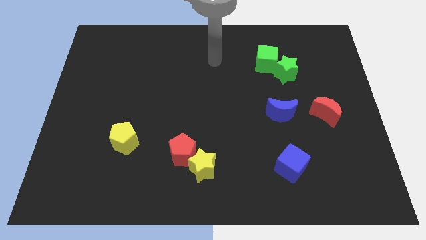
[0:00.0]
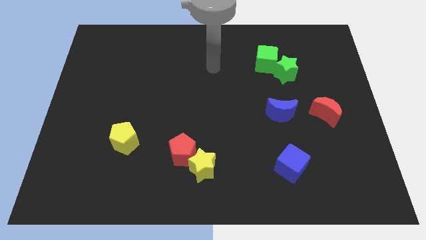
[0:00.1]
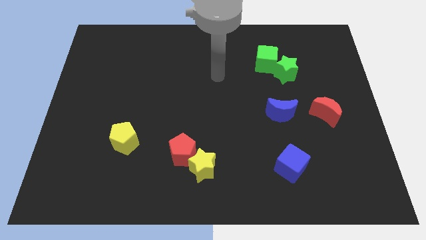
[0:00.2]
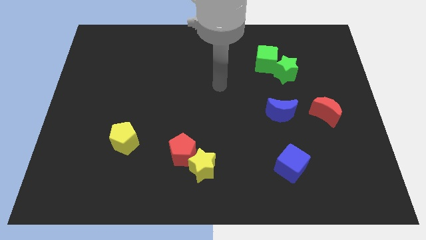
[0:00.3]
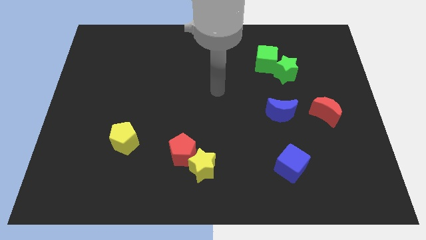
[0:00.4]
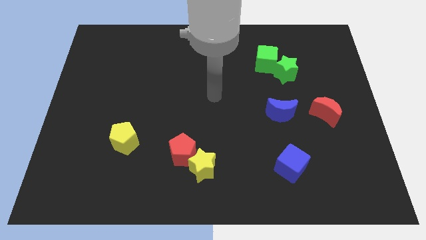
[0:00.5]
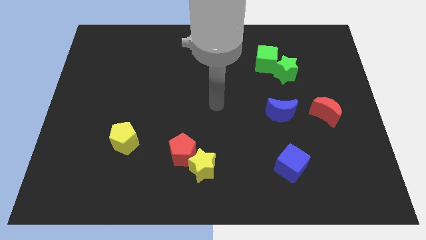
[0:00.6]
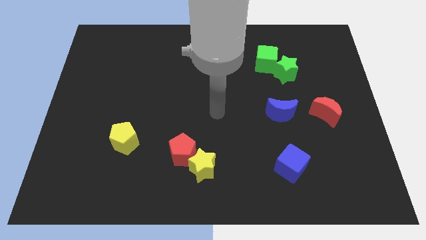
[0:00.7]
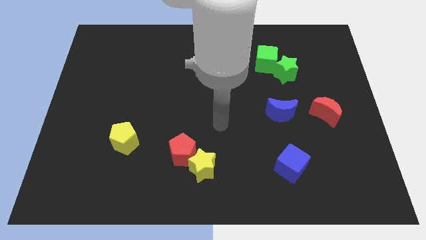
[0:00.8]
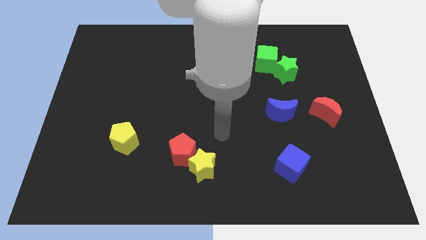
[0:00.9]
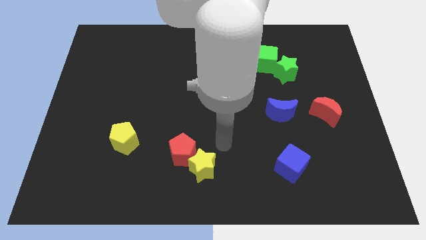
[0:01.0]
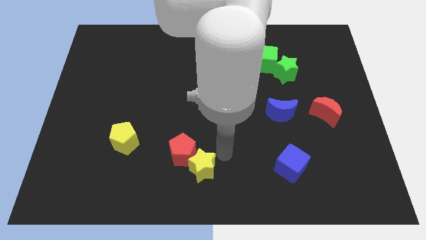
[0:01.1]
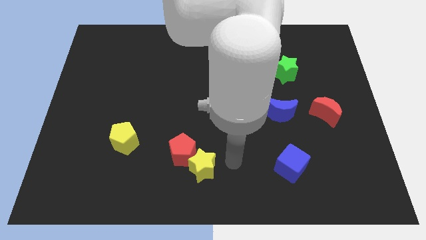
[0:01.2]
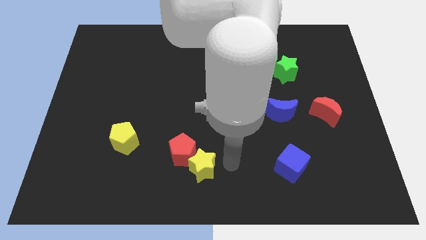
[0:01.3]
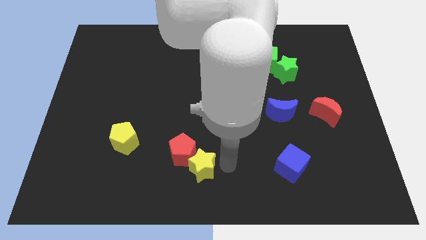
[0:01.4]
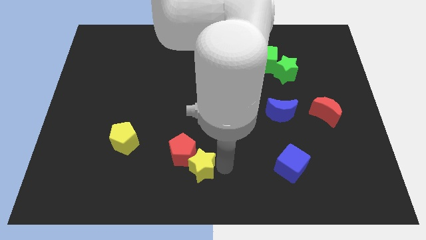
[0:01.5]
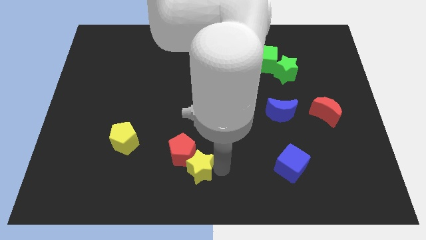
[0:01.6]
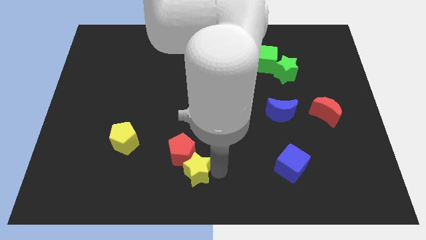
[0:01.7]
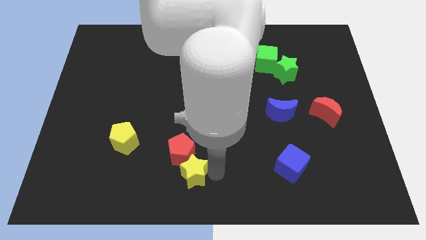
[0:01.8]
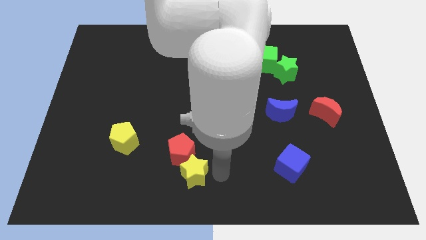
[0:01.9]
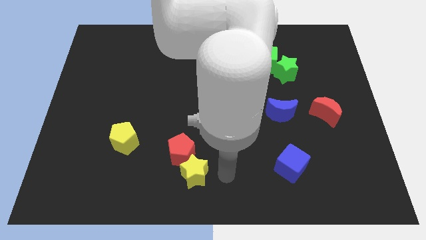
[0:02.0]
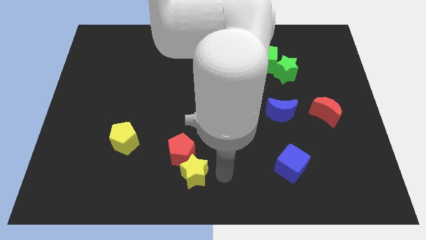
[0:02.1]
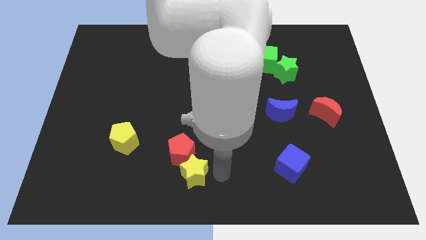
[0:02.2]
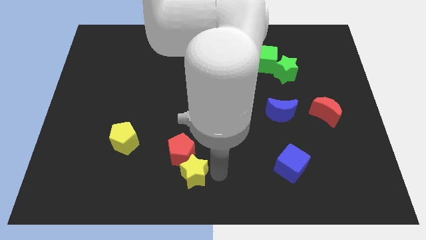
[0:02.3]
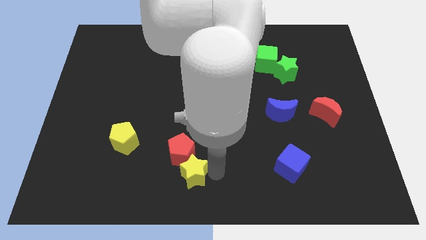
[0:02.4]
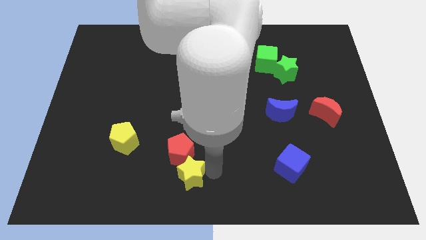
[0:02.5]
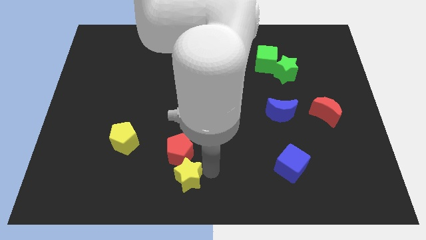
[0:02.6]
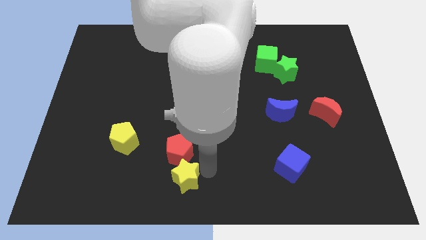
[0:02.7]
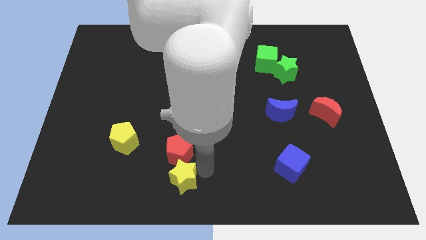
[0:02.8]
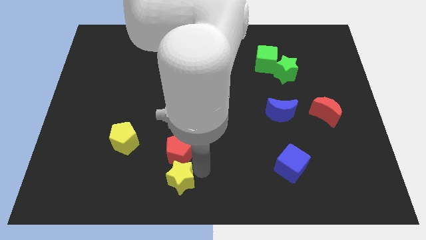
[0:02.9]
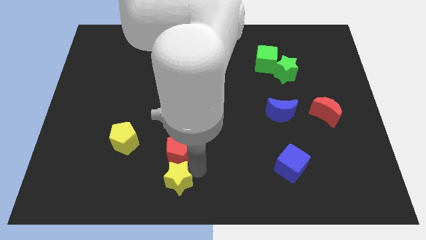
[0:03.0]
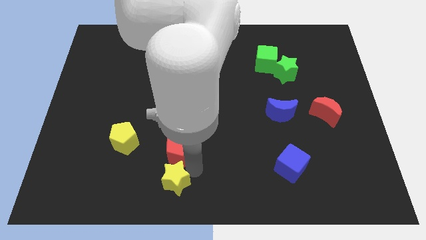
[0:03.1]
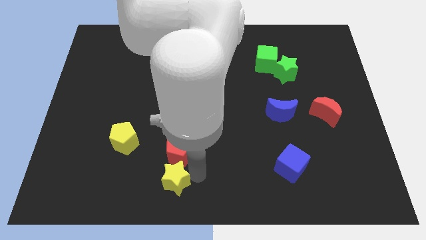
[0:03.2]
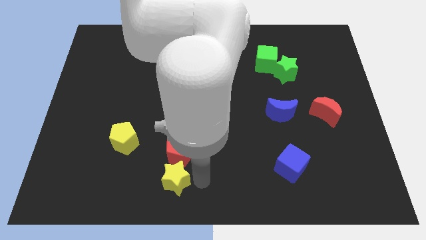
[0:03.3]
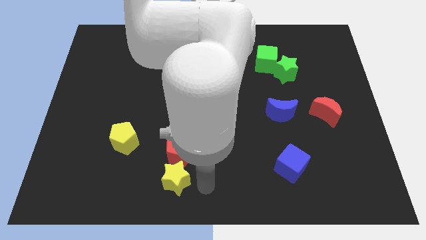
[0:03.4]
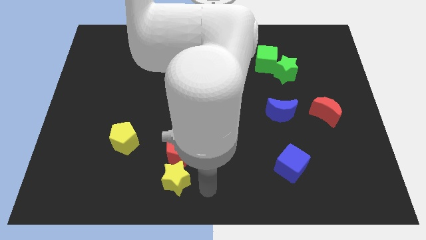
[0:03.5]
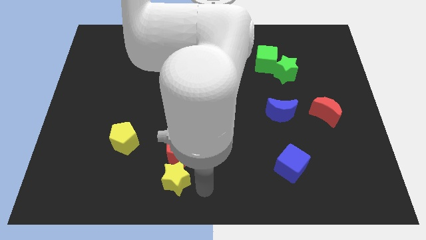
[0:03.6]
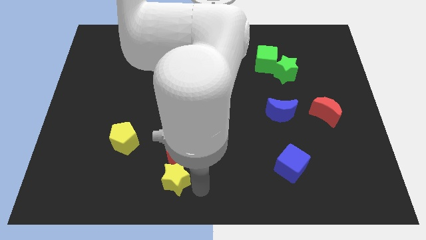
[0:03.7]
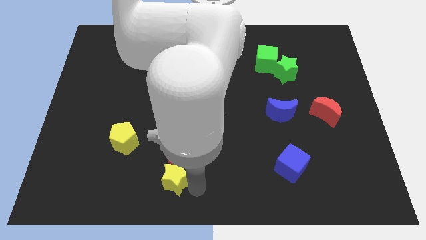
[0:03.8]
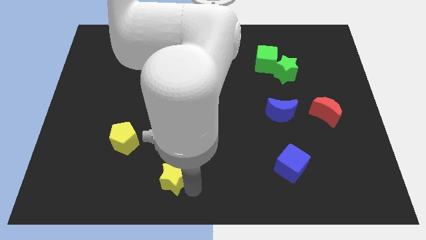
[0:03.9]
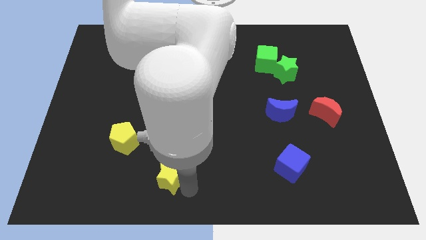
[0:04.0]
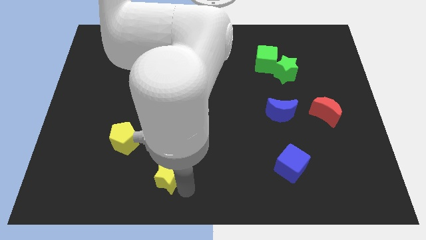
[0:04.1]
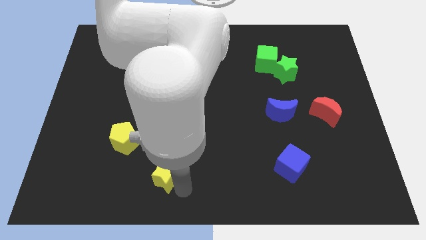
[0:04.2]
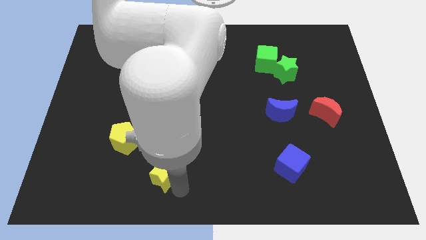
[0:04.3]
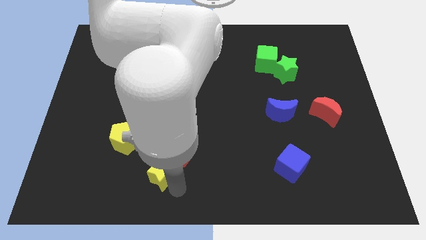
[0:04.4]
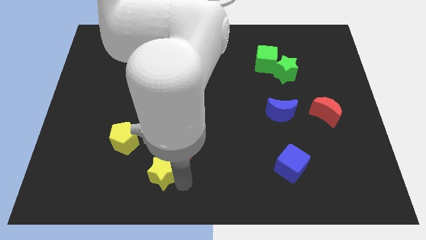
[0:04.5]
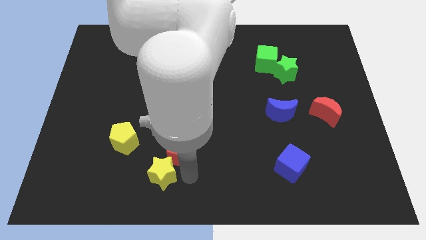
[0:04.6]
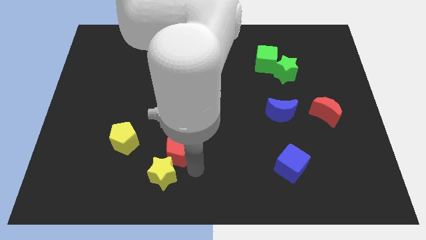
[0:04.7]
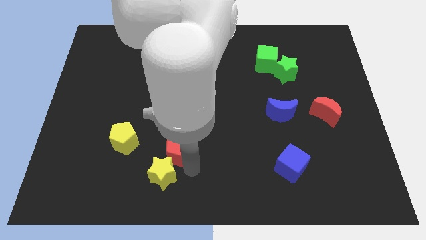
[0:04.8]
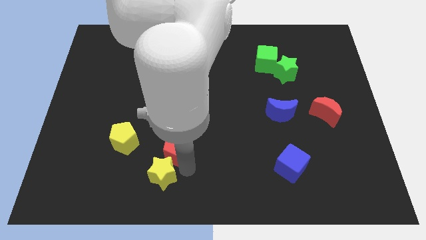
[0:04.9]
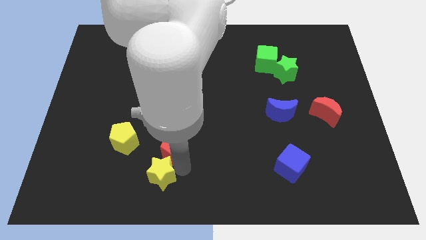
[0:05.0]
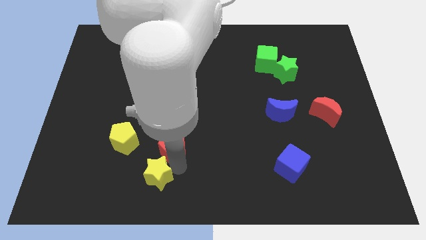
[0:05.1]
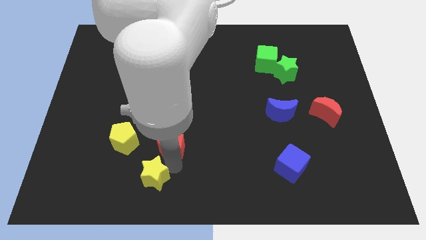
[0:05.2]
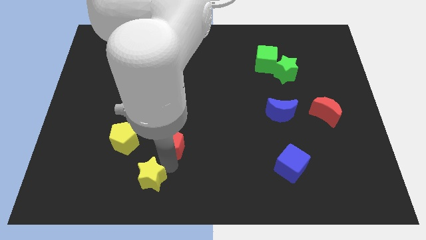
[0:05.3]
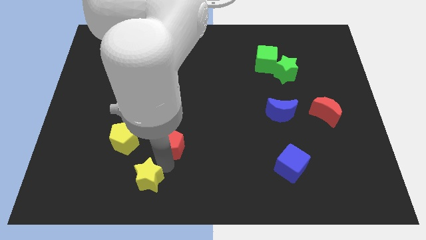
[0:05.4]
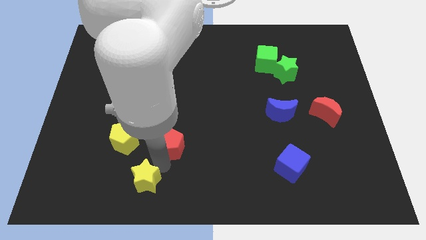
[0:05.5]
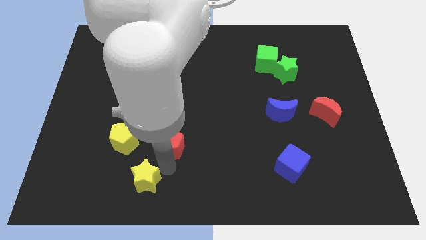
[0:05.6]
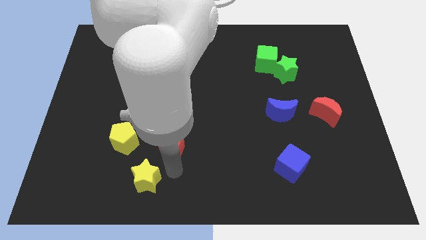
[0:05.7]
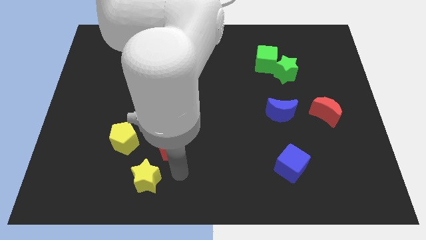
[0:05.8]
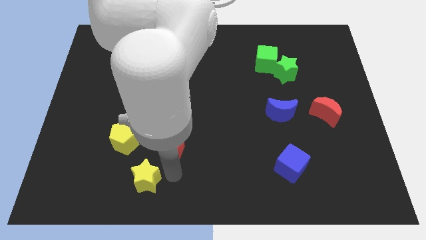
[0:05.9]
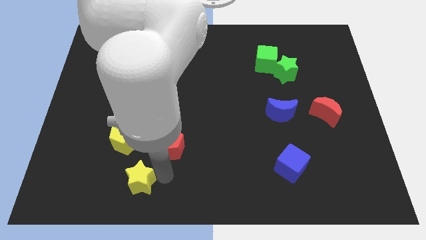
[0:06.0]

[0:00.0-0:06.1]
put the yellow star to the bottom side of the yellow pentagon

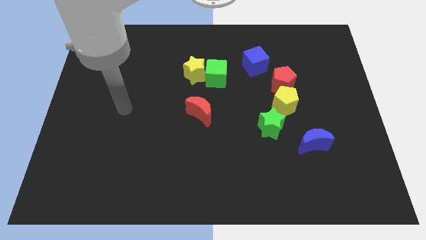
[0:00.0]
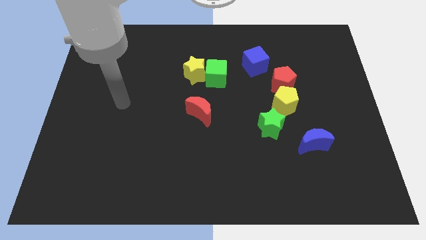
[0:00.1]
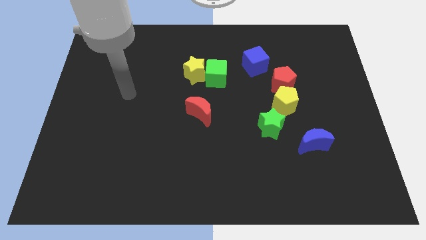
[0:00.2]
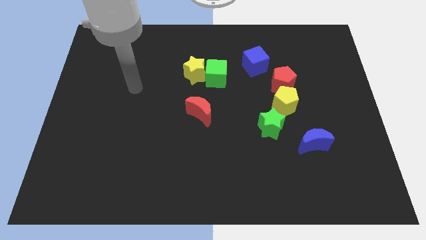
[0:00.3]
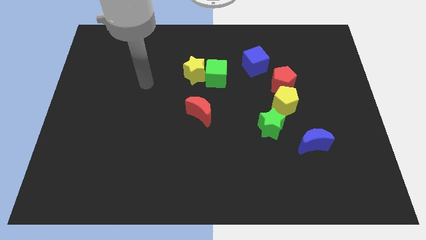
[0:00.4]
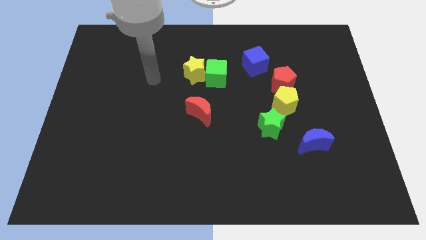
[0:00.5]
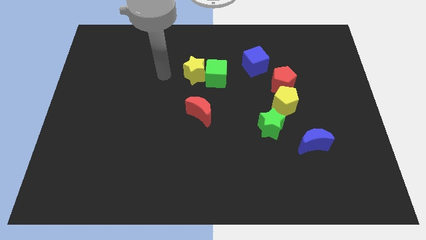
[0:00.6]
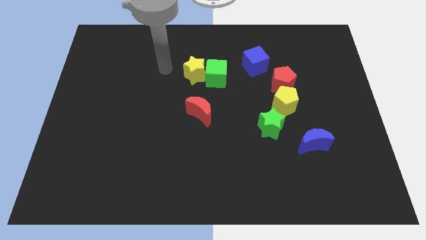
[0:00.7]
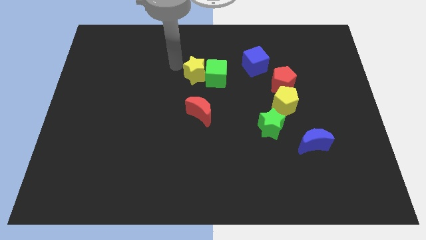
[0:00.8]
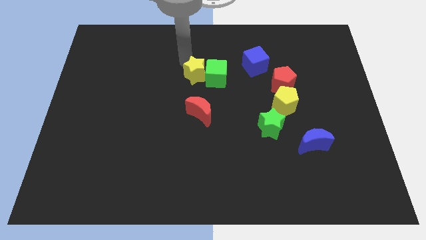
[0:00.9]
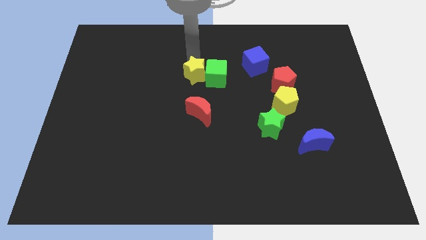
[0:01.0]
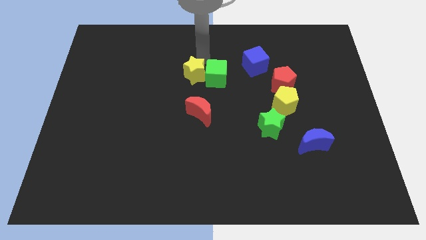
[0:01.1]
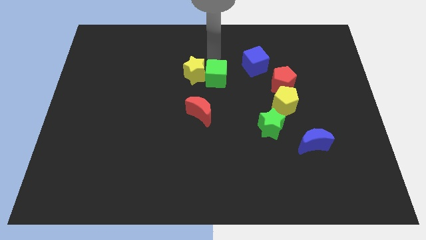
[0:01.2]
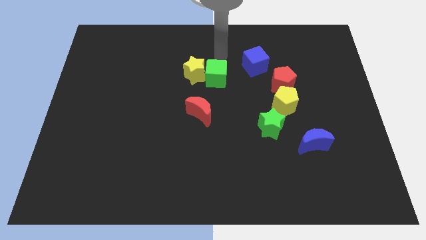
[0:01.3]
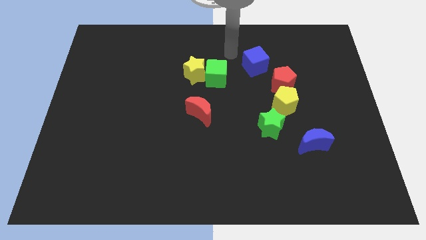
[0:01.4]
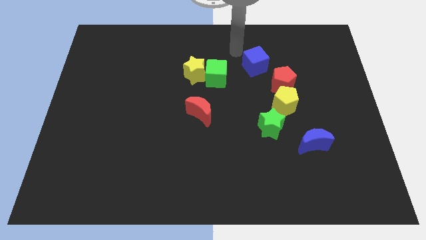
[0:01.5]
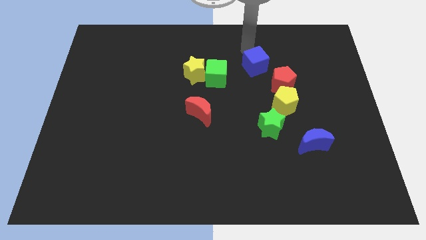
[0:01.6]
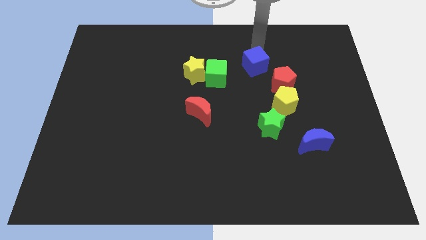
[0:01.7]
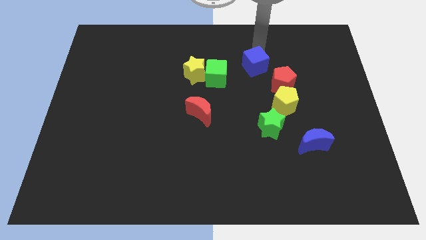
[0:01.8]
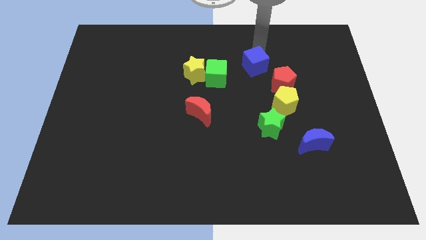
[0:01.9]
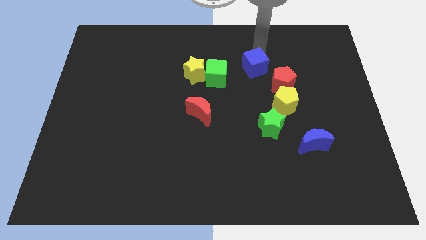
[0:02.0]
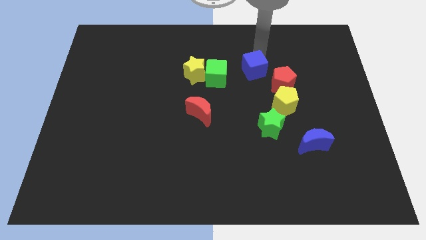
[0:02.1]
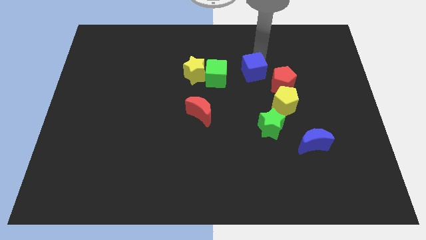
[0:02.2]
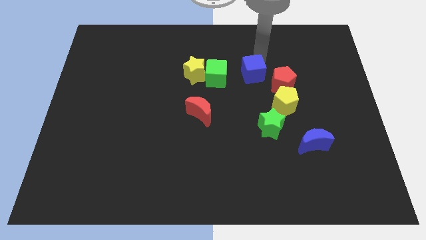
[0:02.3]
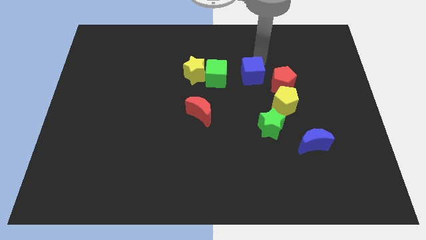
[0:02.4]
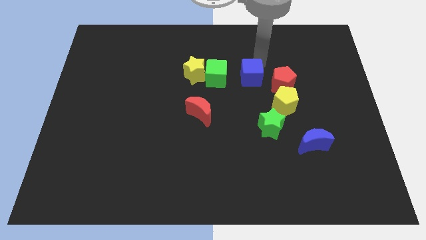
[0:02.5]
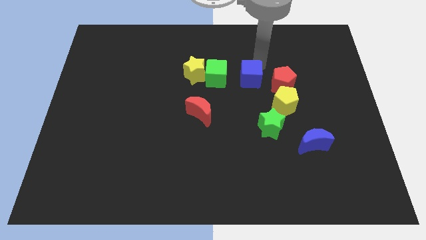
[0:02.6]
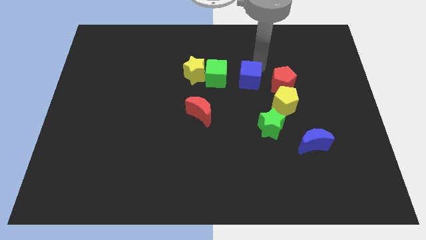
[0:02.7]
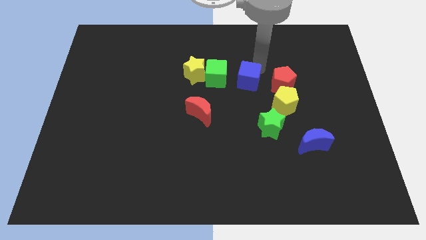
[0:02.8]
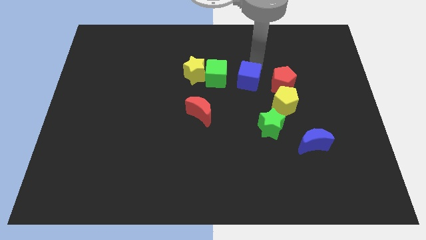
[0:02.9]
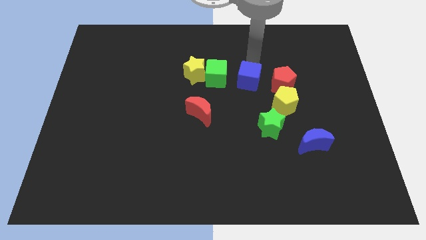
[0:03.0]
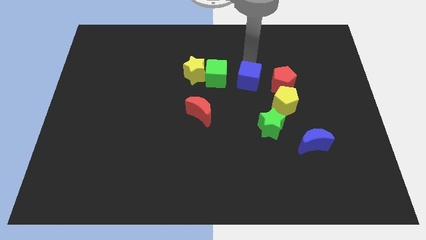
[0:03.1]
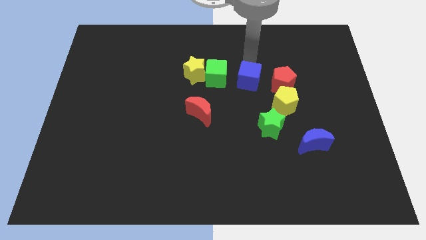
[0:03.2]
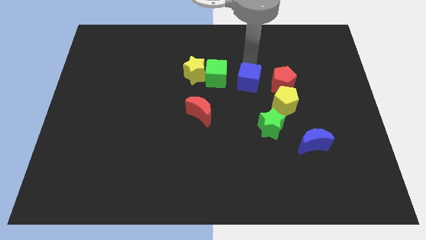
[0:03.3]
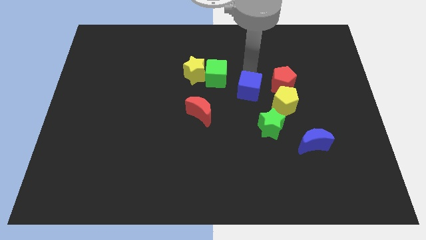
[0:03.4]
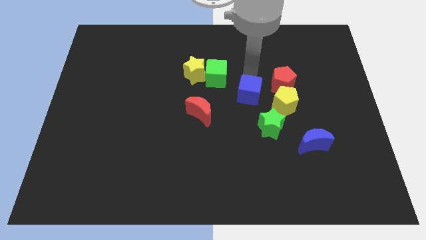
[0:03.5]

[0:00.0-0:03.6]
move the blue cube to the top left side of the green star
